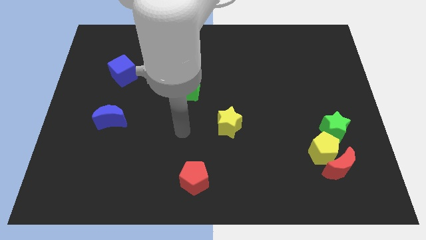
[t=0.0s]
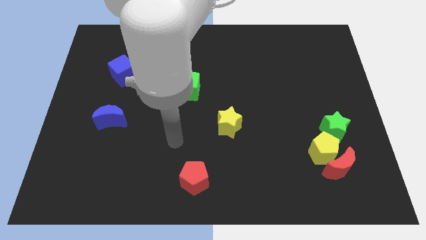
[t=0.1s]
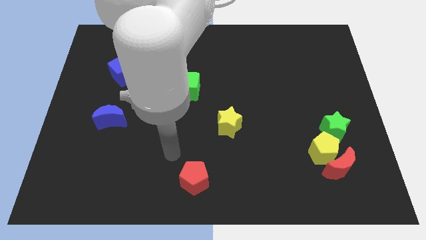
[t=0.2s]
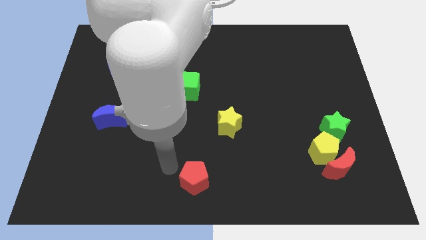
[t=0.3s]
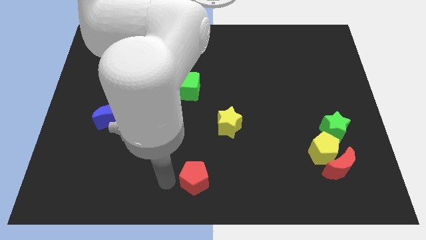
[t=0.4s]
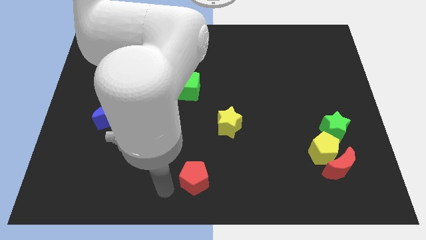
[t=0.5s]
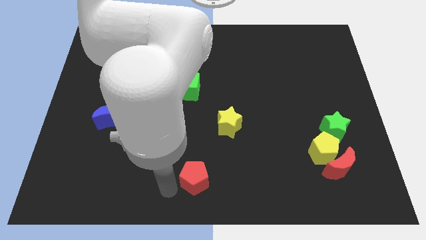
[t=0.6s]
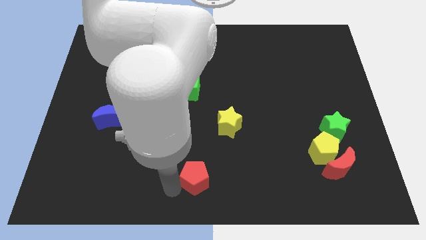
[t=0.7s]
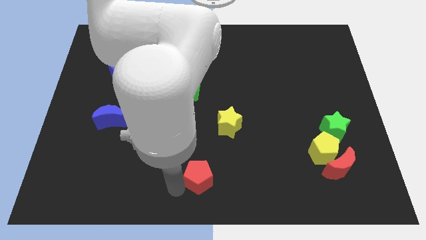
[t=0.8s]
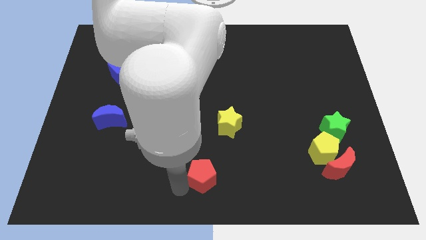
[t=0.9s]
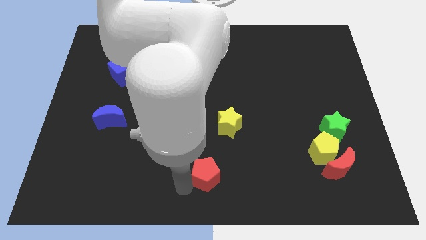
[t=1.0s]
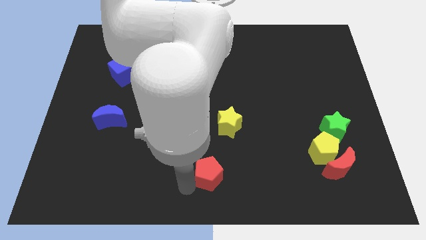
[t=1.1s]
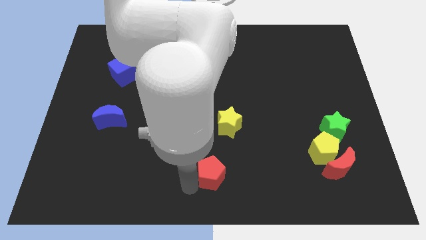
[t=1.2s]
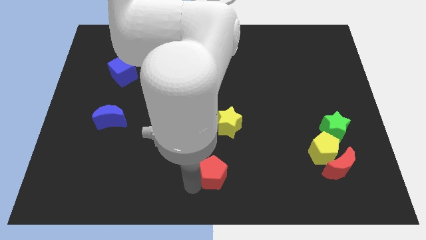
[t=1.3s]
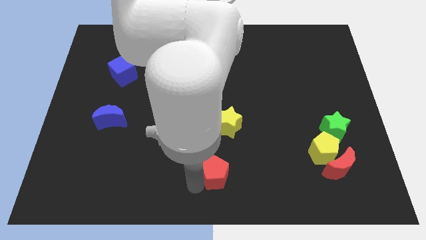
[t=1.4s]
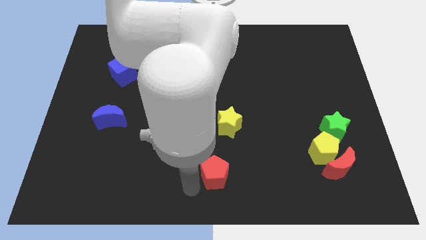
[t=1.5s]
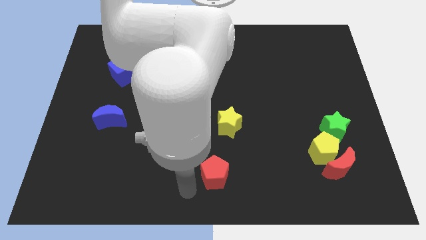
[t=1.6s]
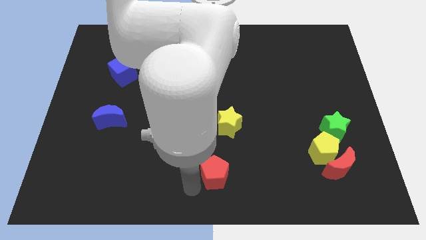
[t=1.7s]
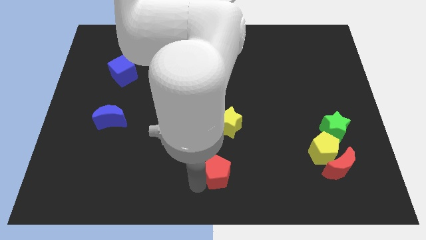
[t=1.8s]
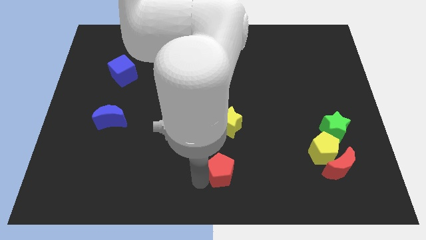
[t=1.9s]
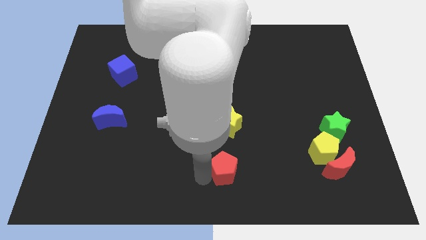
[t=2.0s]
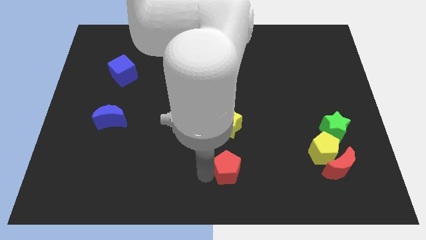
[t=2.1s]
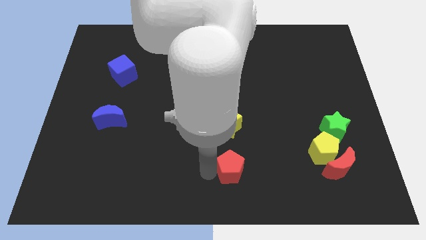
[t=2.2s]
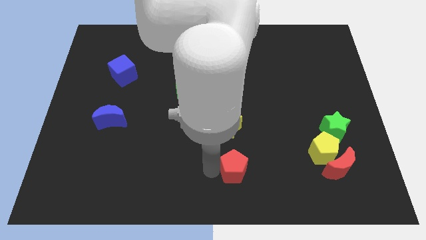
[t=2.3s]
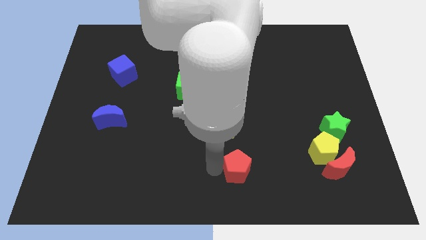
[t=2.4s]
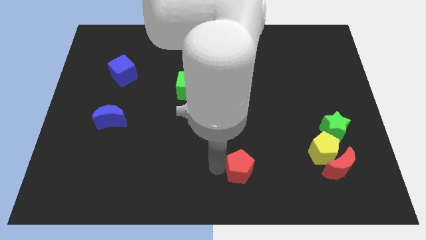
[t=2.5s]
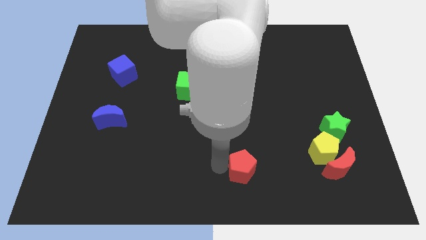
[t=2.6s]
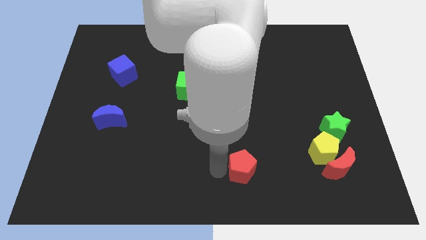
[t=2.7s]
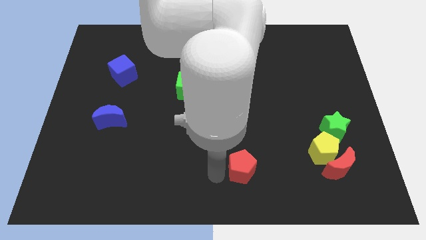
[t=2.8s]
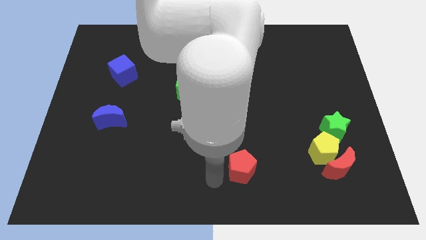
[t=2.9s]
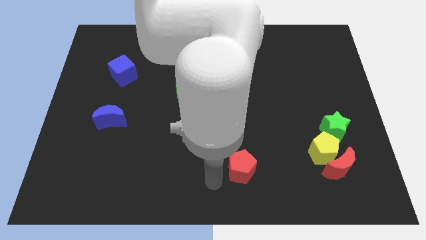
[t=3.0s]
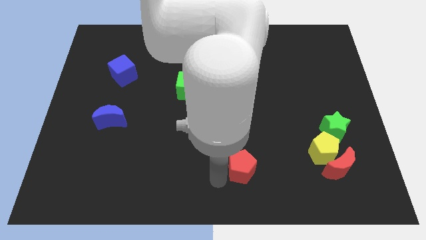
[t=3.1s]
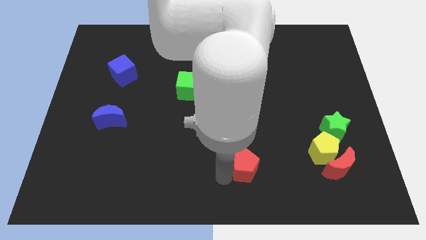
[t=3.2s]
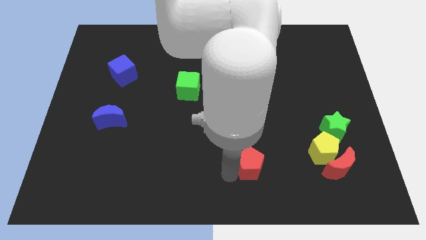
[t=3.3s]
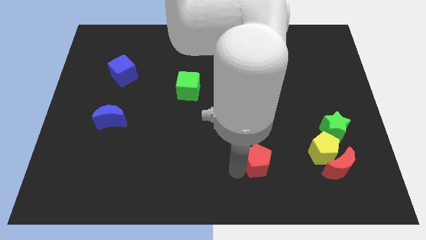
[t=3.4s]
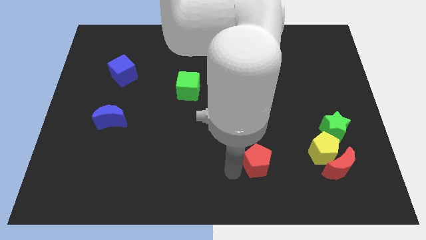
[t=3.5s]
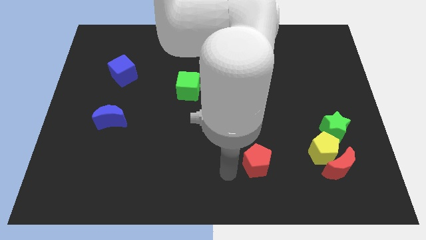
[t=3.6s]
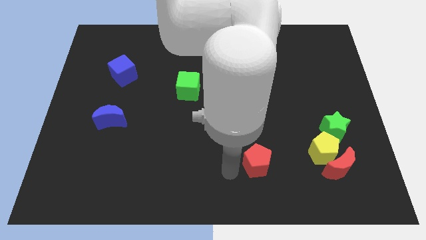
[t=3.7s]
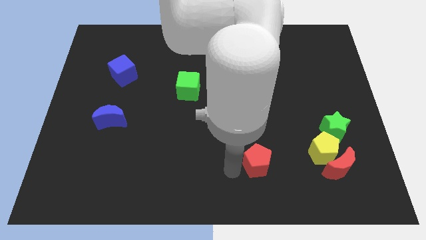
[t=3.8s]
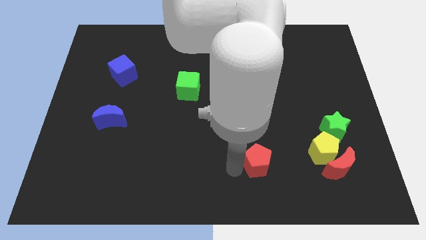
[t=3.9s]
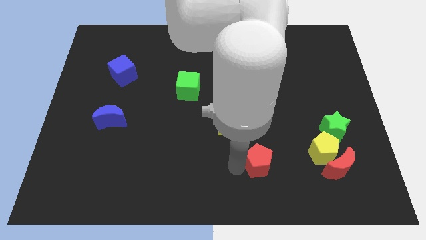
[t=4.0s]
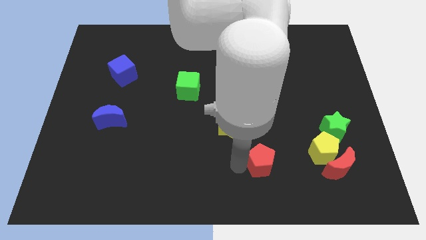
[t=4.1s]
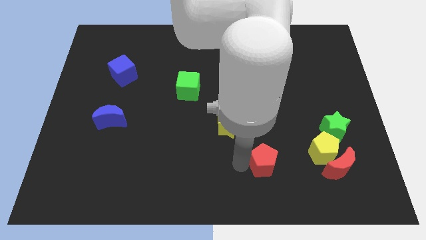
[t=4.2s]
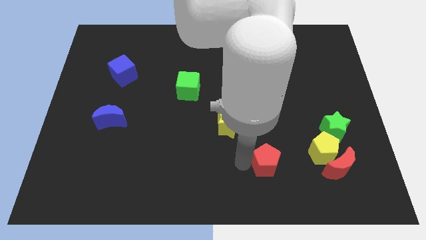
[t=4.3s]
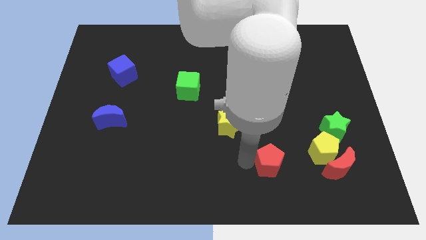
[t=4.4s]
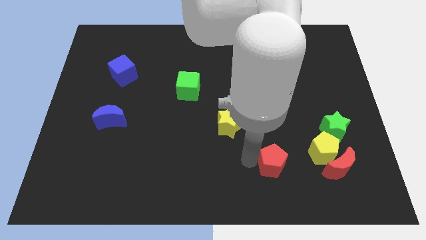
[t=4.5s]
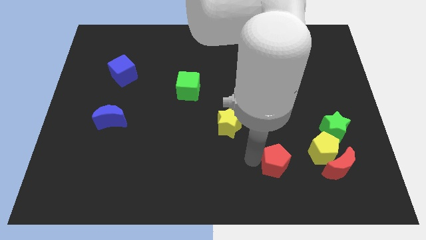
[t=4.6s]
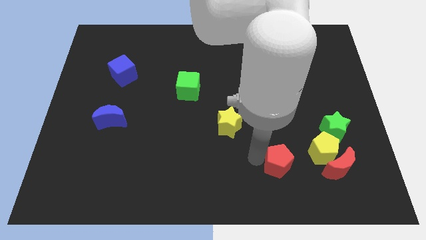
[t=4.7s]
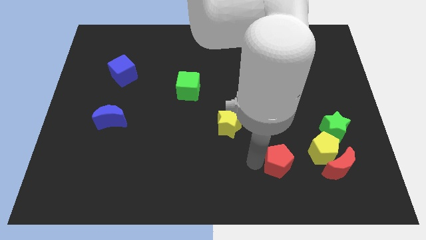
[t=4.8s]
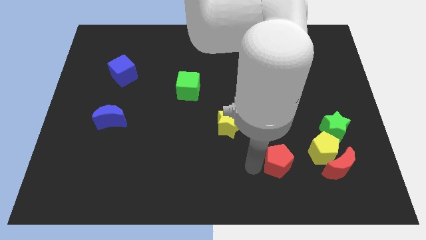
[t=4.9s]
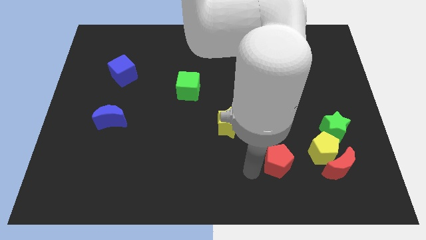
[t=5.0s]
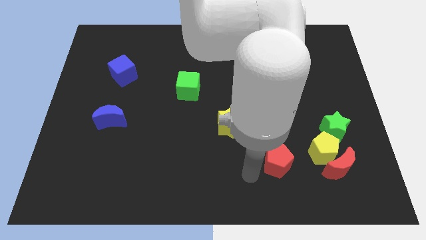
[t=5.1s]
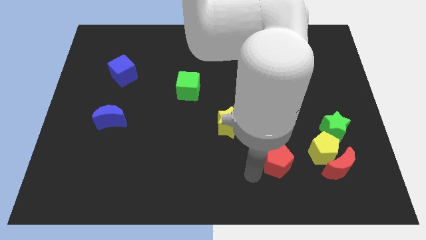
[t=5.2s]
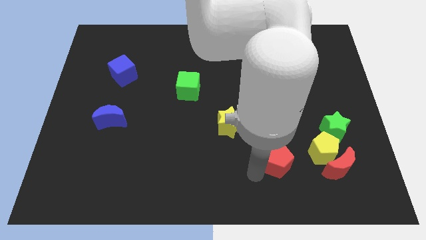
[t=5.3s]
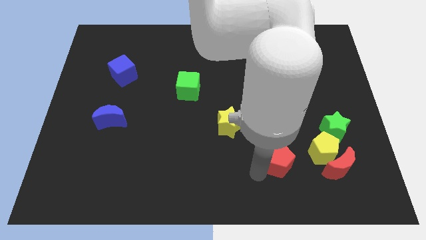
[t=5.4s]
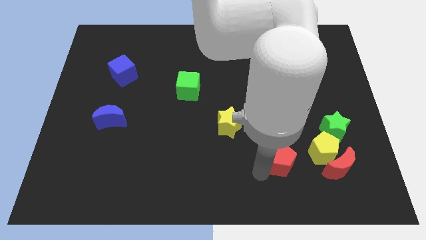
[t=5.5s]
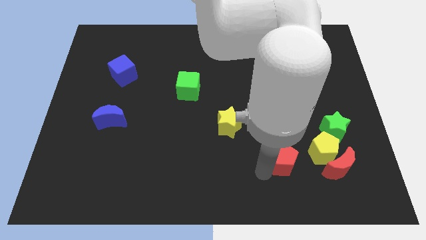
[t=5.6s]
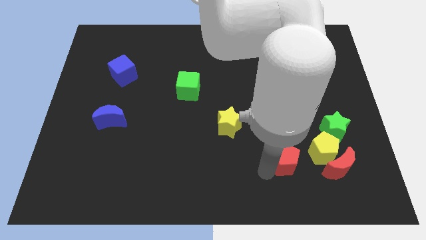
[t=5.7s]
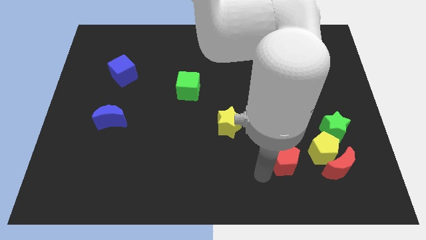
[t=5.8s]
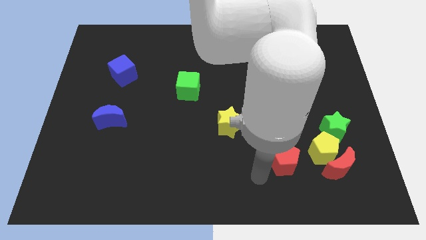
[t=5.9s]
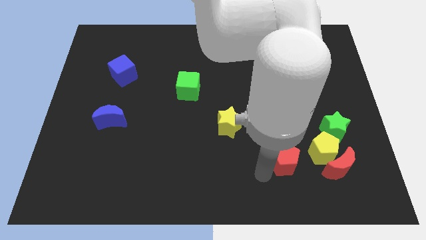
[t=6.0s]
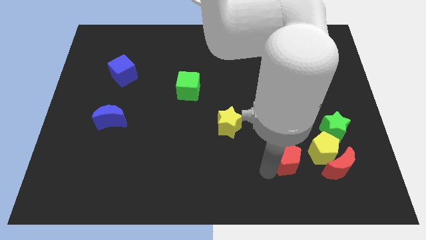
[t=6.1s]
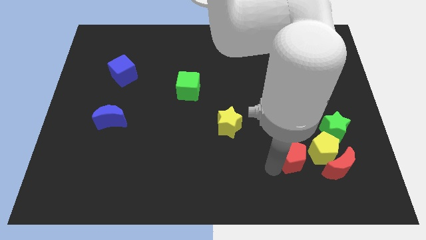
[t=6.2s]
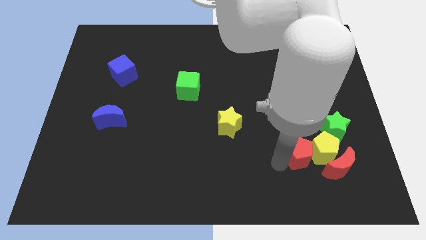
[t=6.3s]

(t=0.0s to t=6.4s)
put the red pentagon next to the yellow pentagon

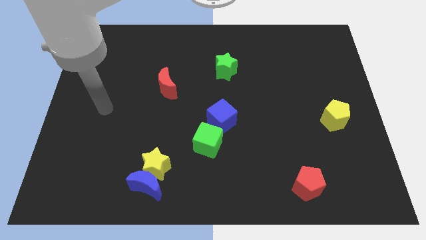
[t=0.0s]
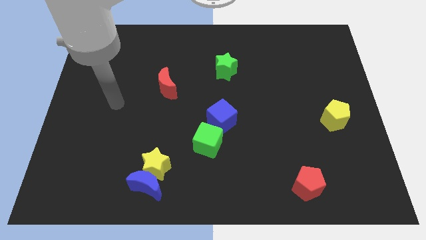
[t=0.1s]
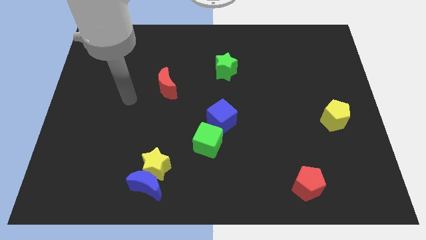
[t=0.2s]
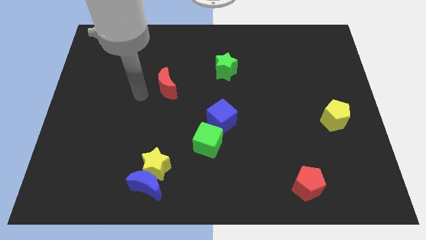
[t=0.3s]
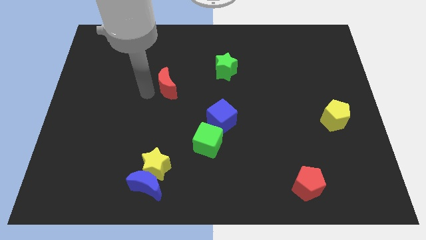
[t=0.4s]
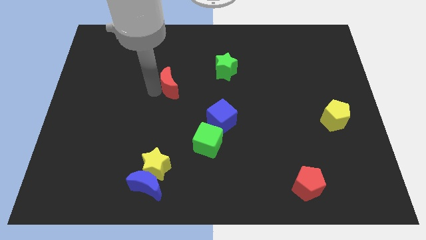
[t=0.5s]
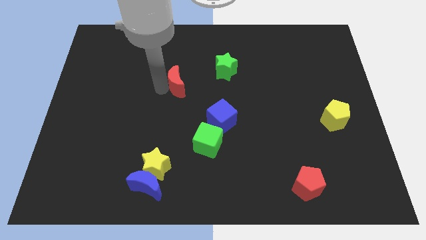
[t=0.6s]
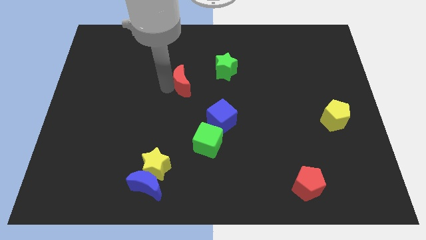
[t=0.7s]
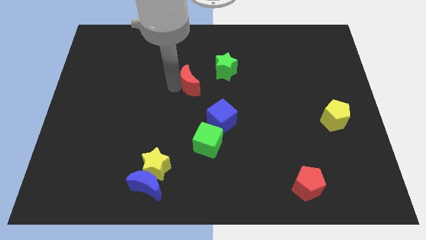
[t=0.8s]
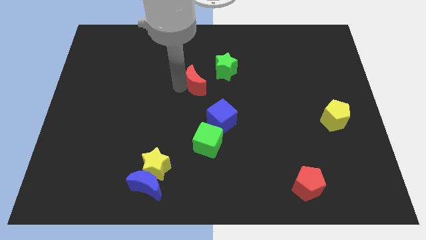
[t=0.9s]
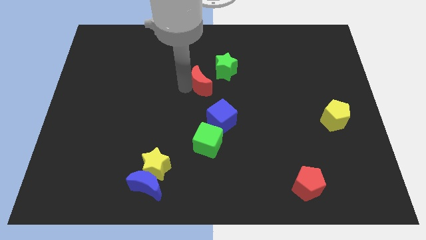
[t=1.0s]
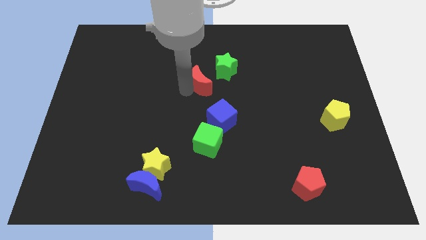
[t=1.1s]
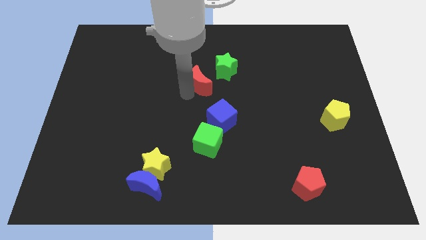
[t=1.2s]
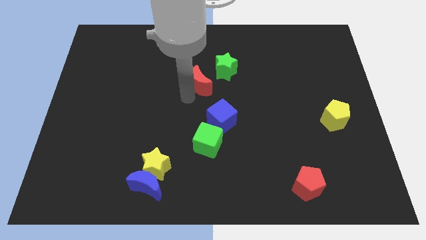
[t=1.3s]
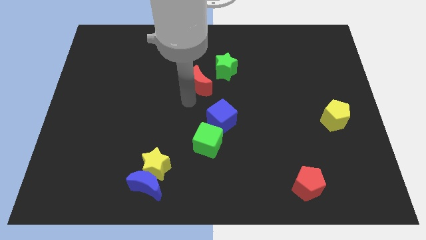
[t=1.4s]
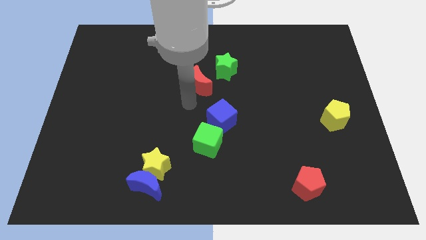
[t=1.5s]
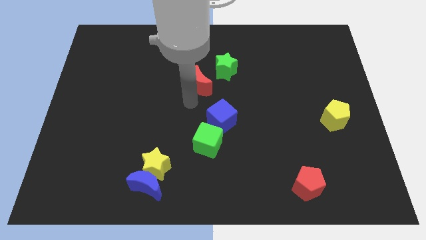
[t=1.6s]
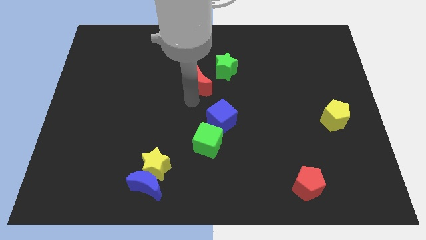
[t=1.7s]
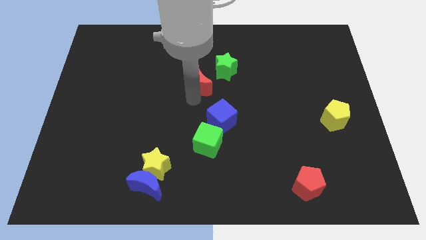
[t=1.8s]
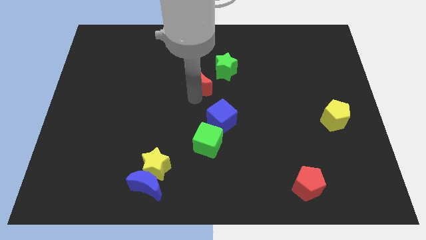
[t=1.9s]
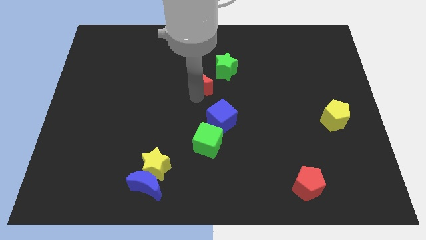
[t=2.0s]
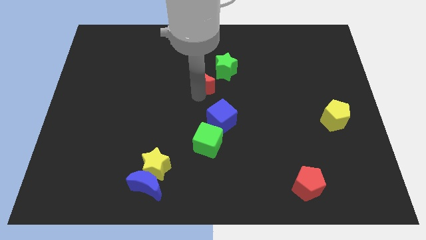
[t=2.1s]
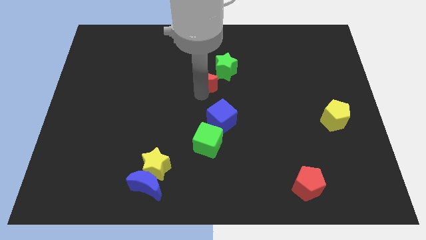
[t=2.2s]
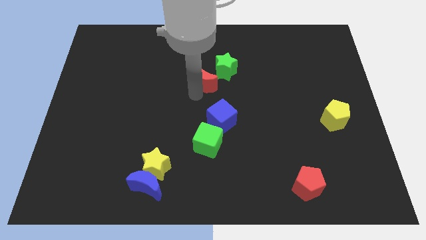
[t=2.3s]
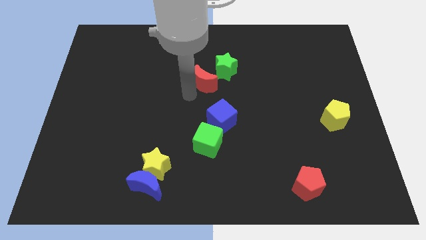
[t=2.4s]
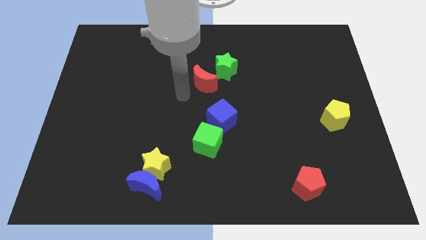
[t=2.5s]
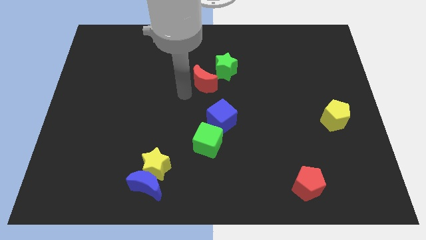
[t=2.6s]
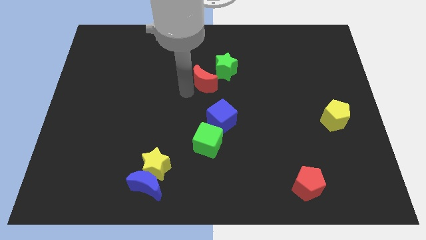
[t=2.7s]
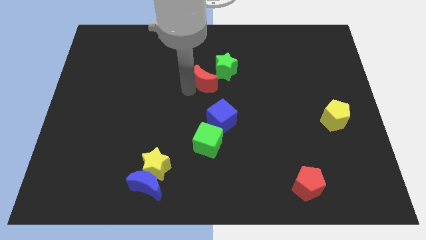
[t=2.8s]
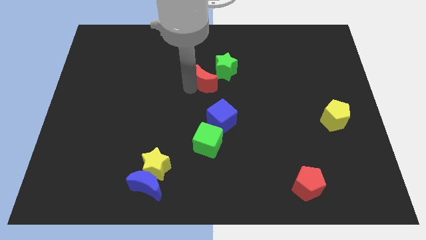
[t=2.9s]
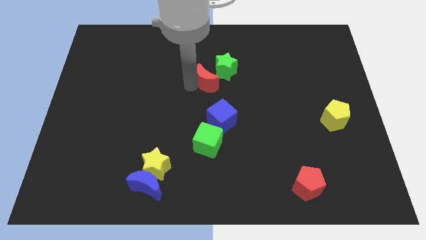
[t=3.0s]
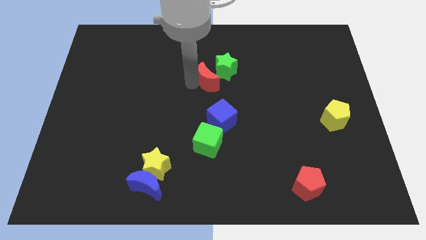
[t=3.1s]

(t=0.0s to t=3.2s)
slide the red moon to the green star
